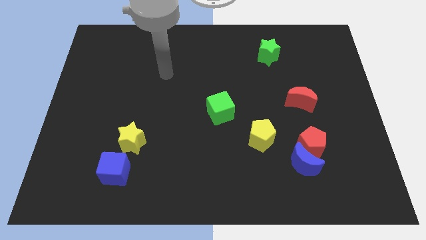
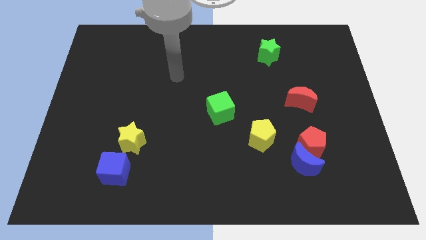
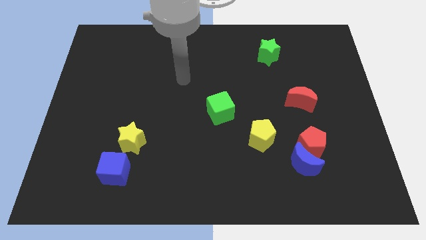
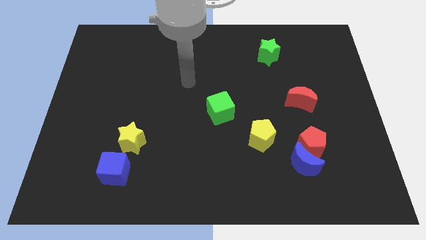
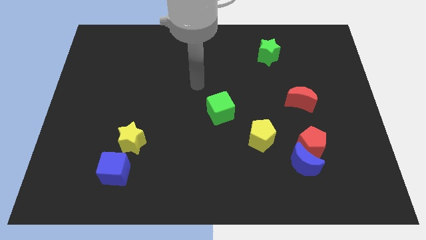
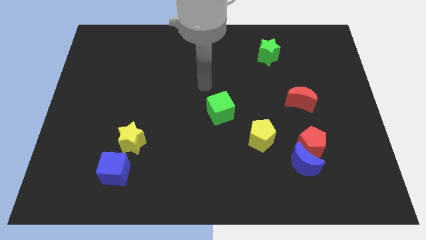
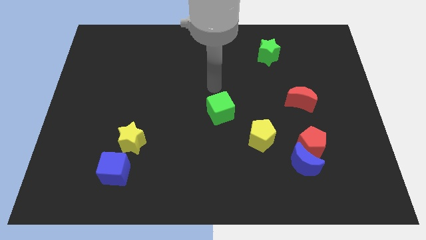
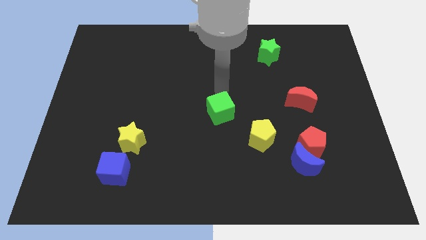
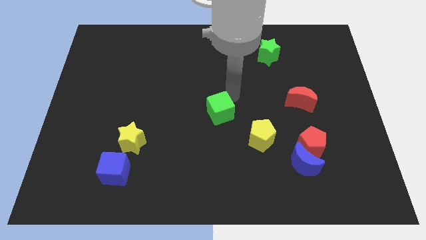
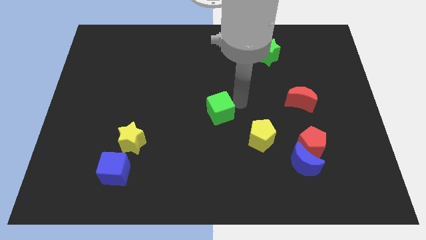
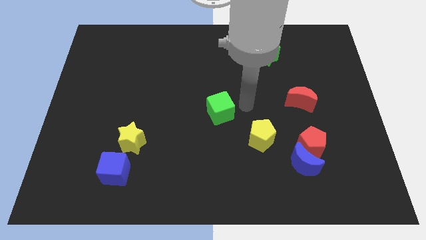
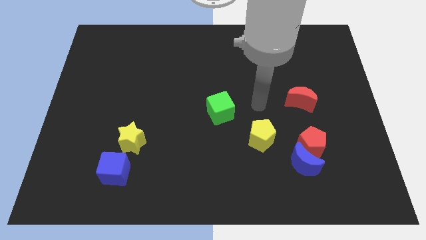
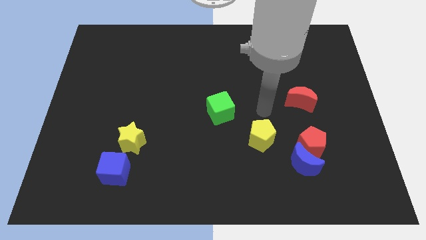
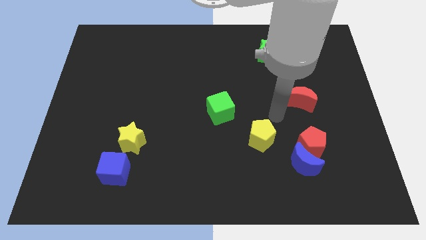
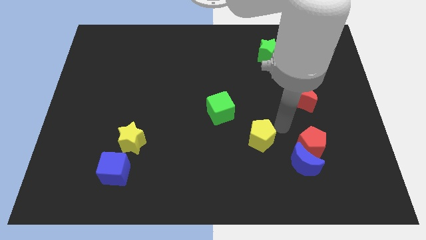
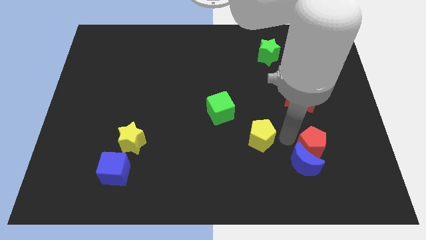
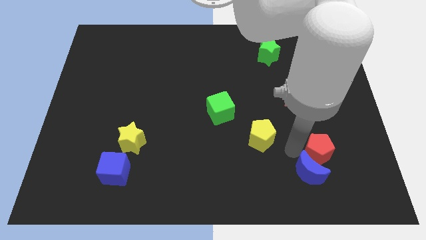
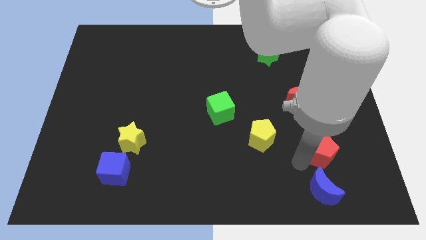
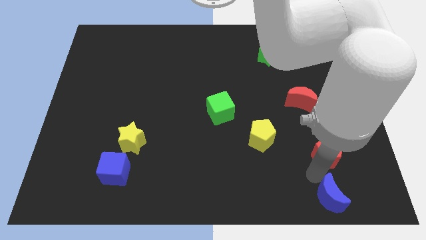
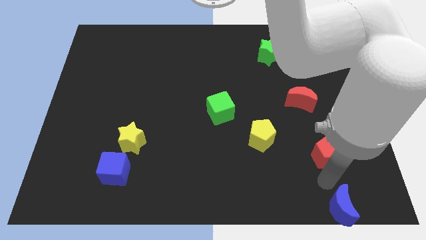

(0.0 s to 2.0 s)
pull the red pentagon apart from the blue moon

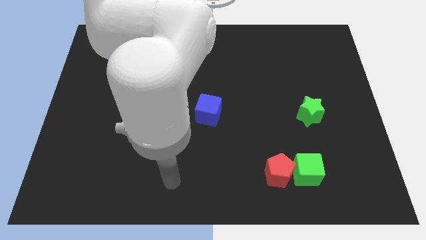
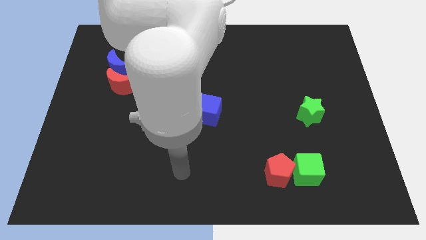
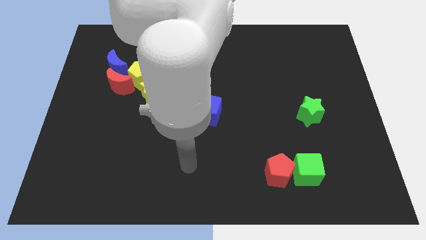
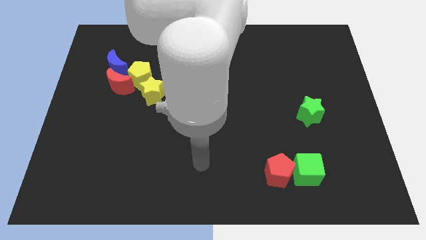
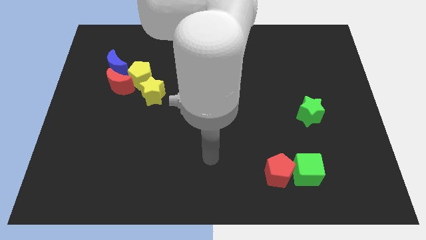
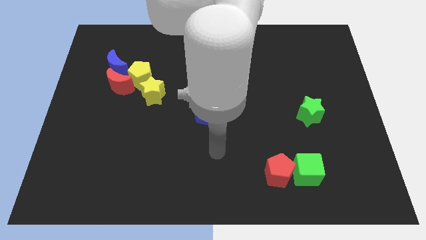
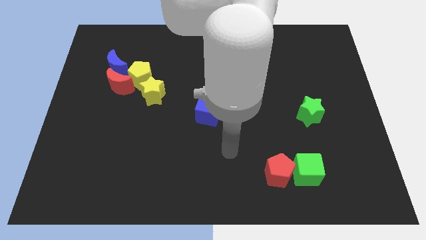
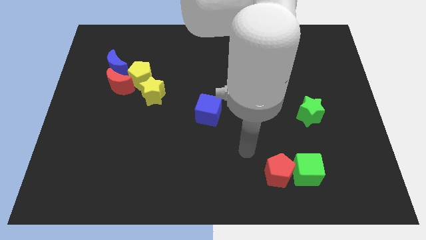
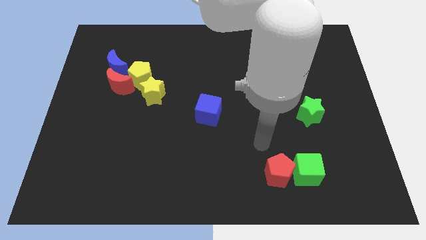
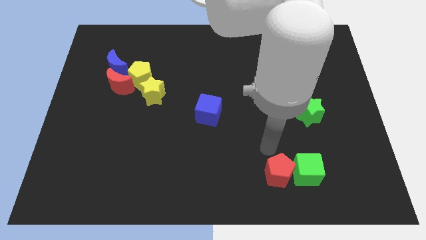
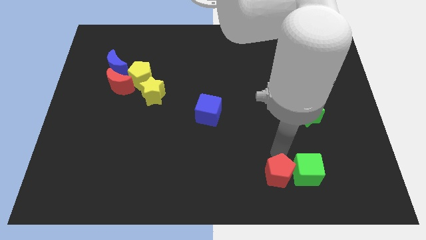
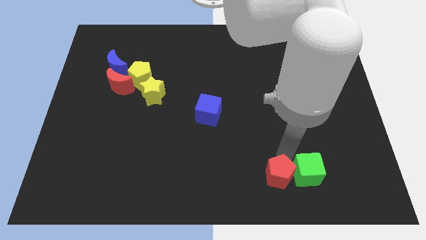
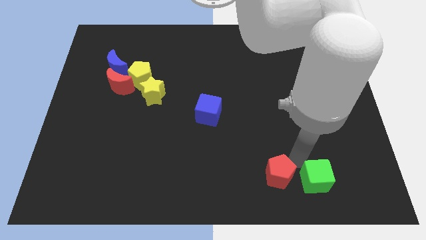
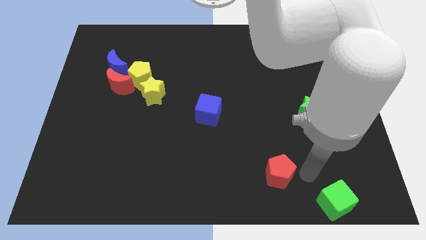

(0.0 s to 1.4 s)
separate the red pentagon from the green cube

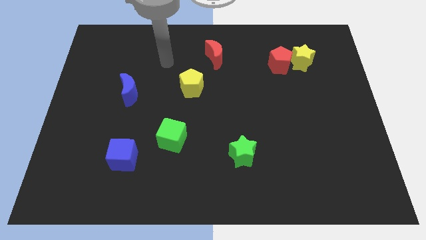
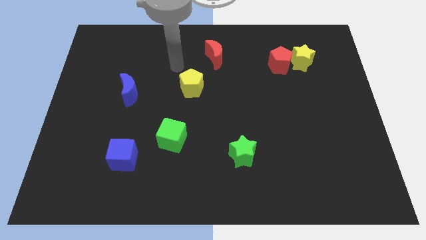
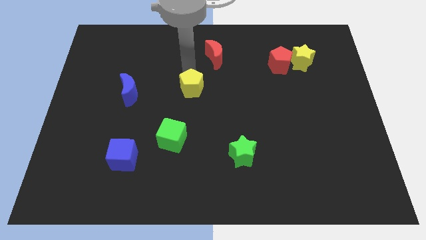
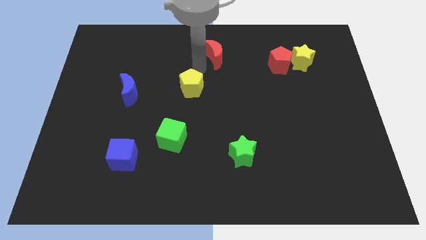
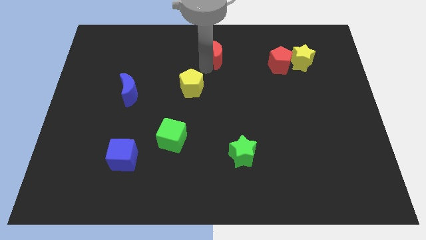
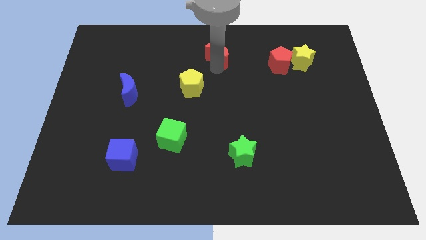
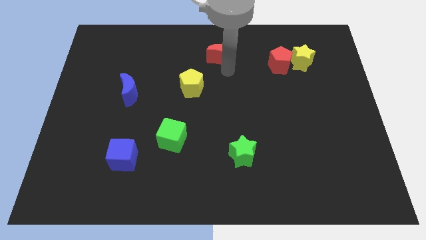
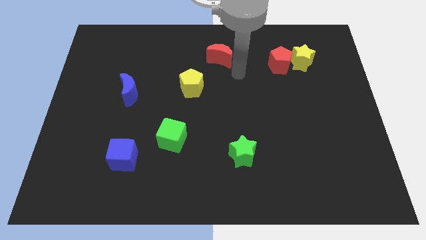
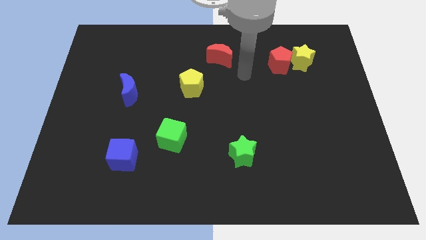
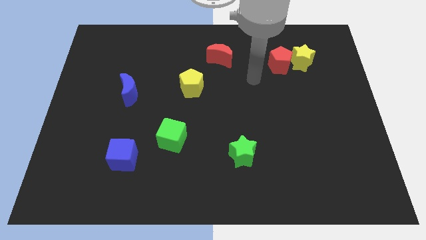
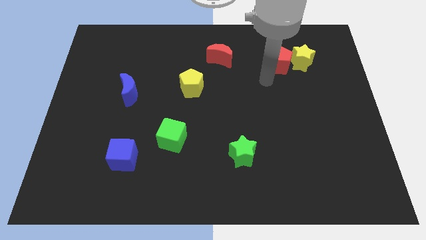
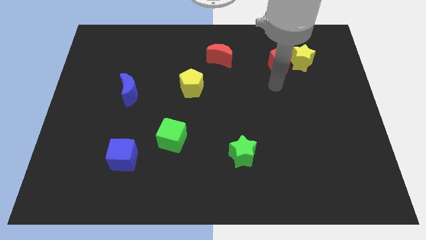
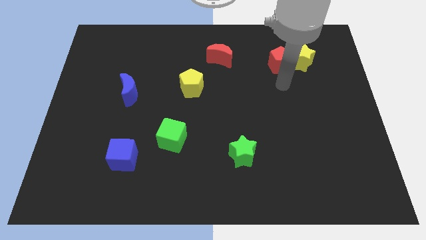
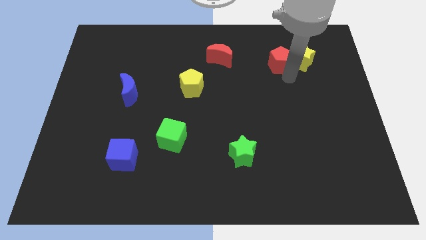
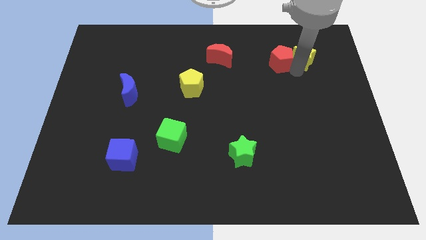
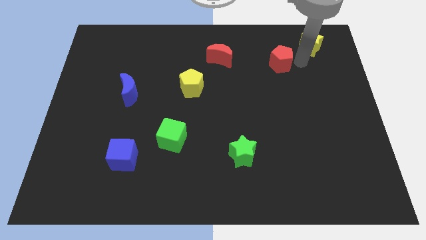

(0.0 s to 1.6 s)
separate the red pentagon from the yellow star

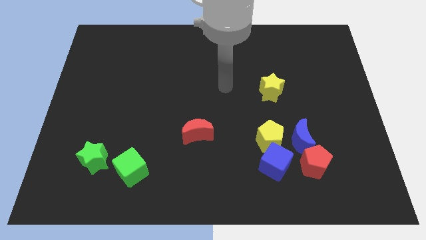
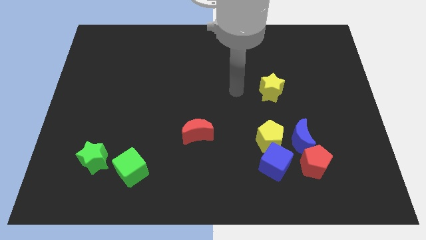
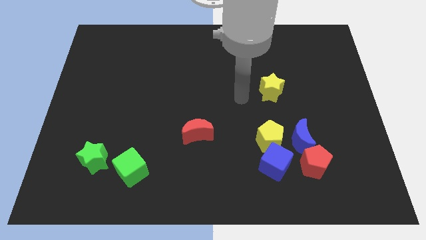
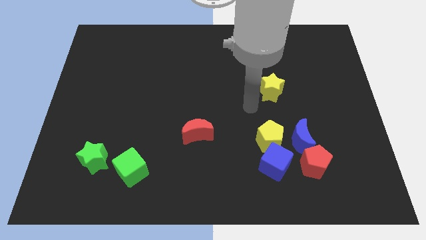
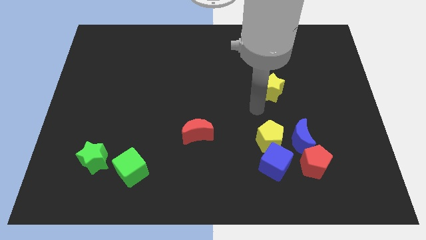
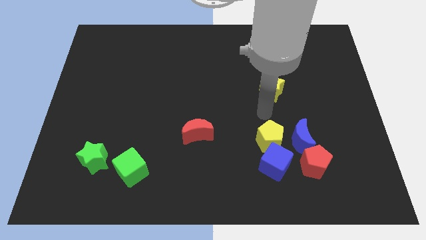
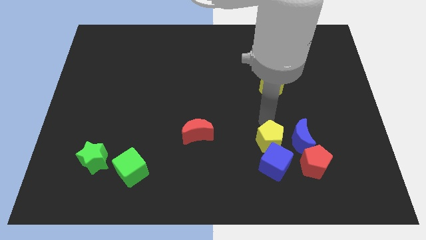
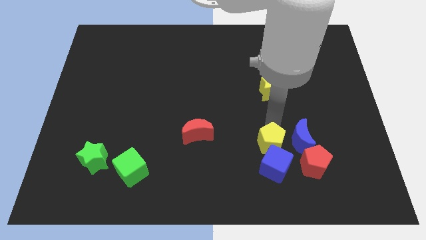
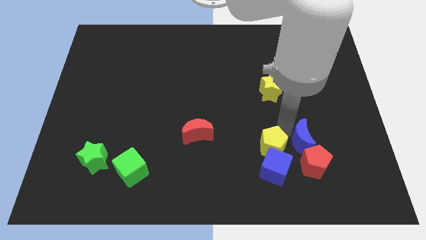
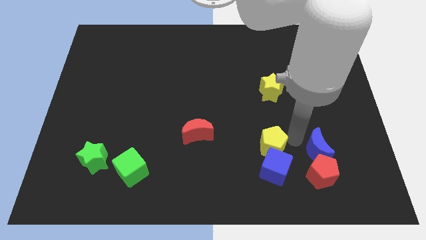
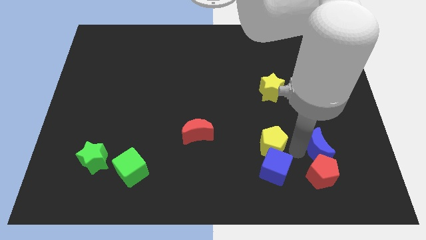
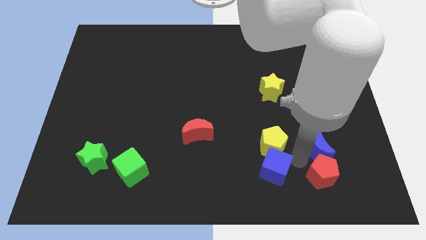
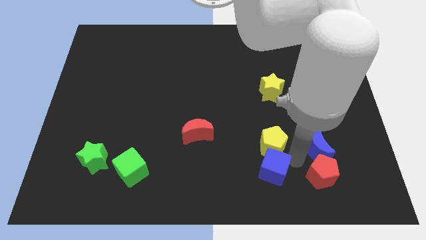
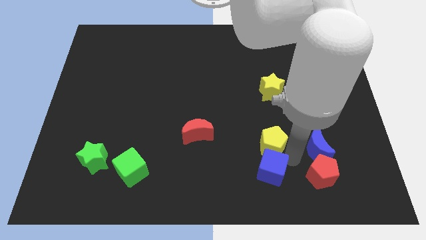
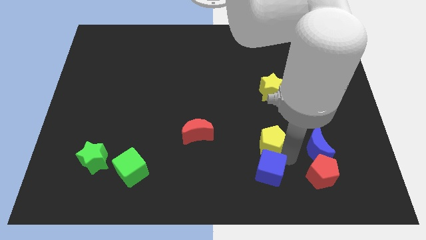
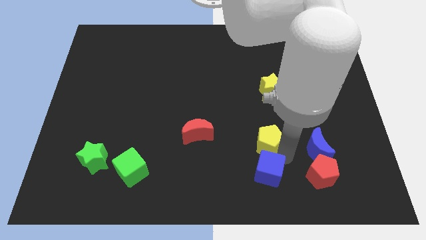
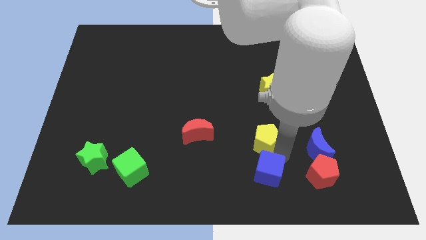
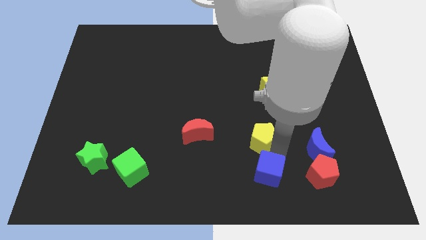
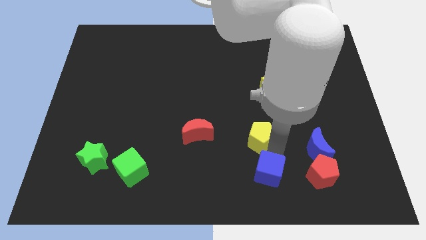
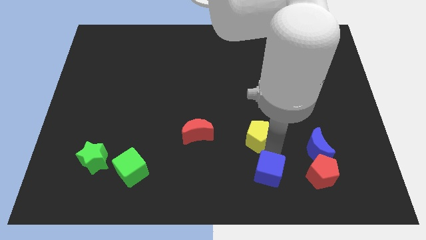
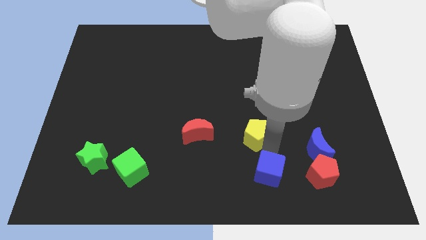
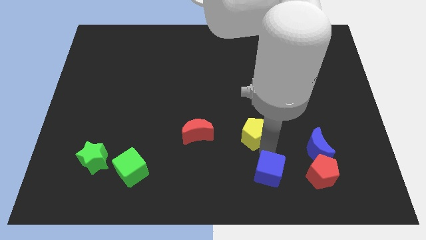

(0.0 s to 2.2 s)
separate the yellow pentagon from the blue cube and blue moon

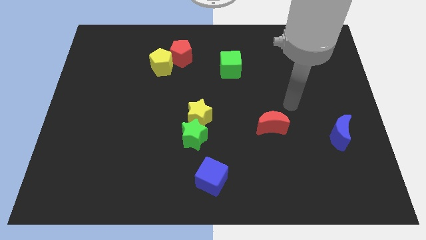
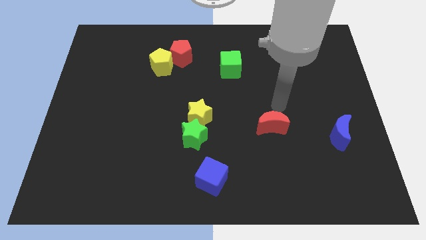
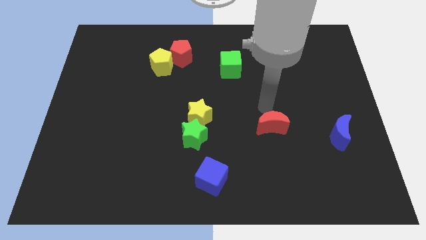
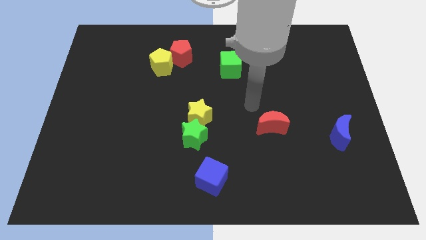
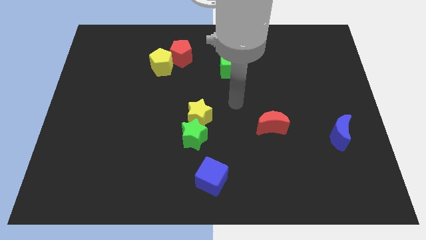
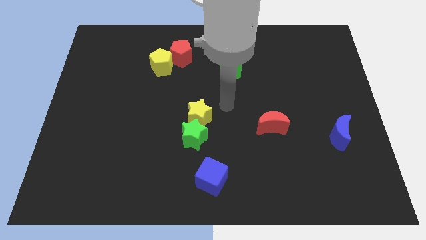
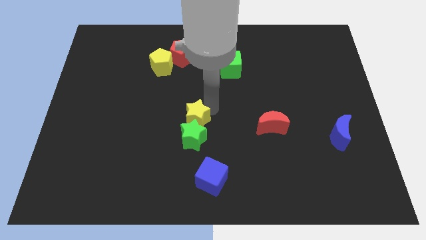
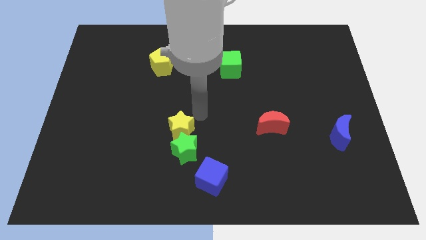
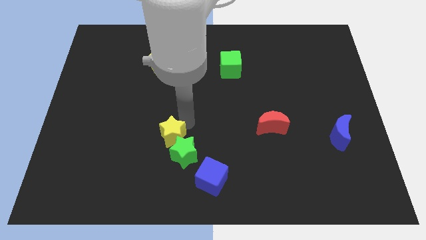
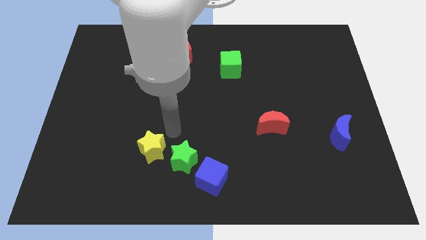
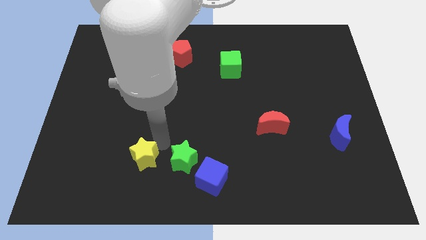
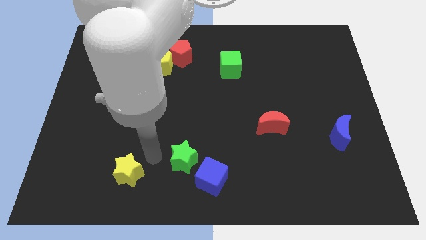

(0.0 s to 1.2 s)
pull the green star apart from the yellow star

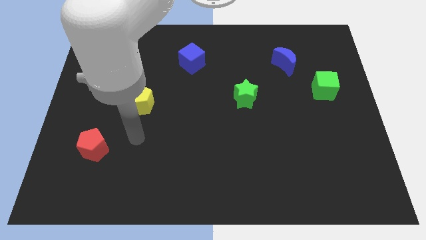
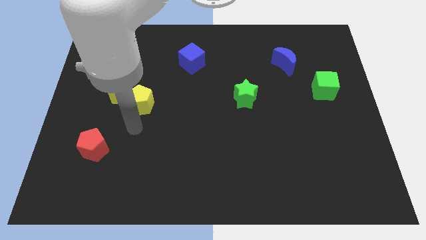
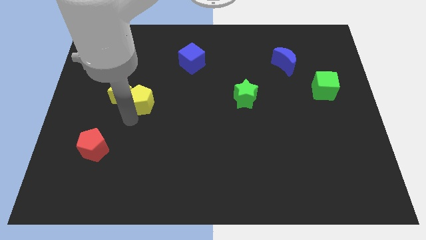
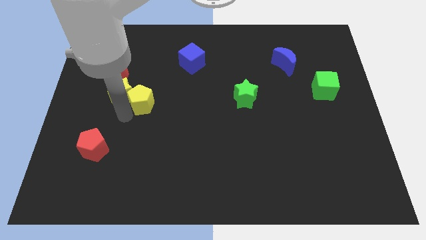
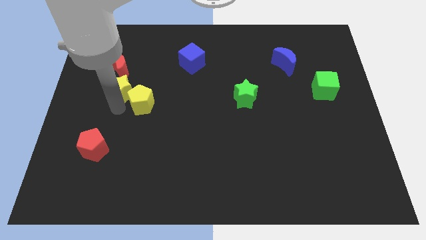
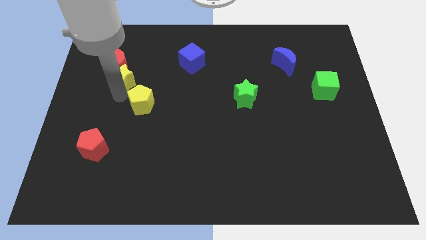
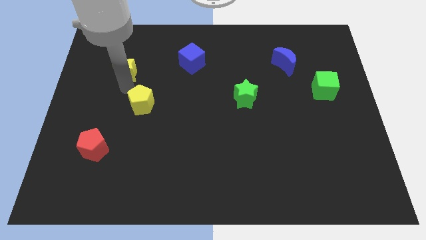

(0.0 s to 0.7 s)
pull the yellow pentagon apart from the yellow star

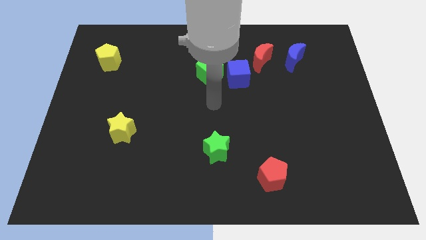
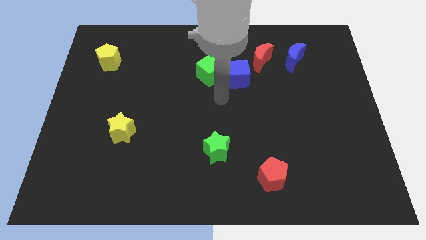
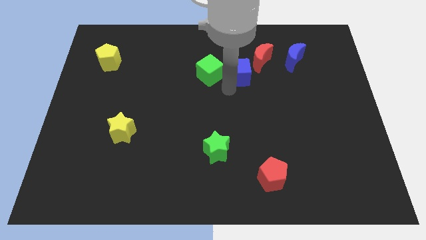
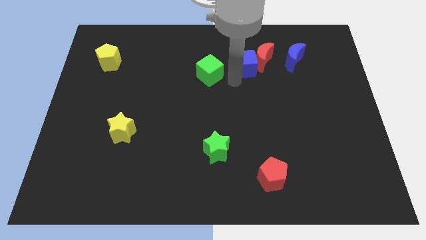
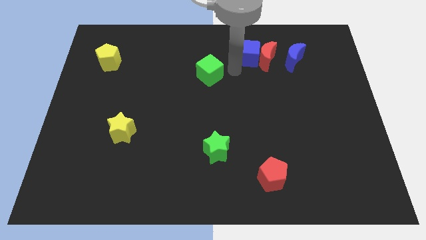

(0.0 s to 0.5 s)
pull the green cube apart from the blue cube
